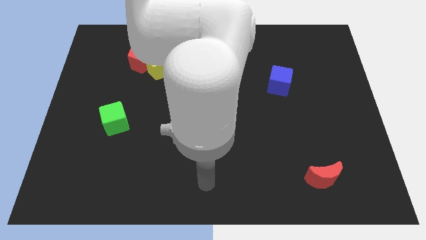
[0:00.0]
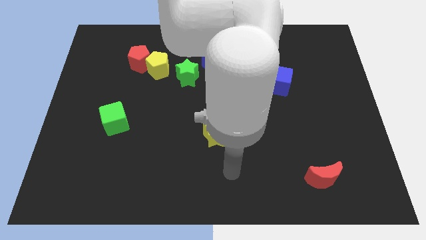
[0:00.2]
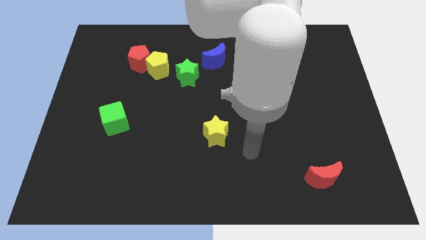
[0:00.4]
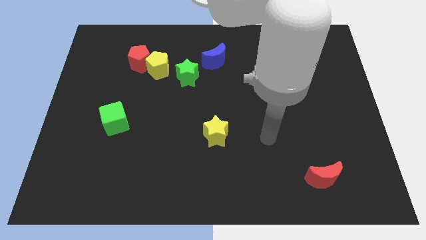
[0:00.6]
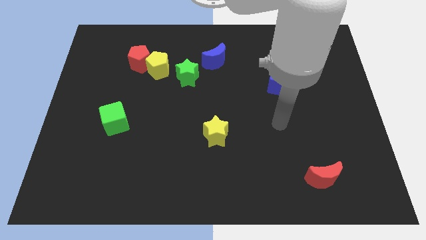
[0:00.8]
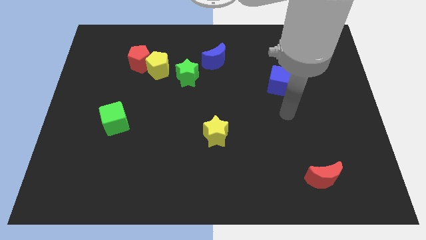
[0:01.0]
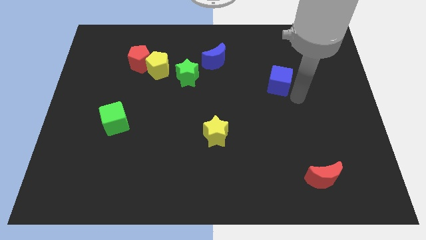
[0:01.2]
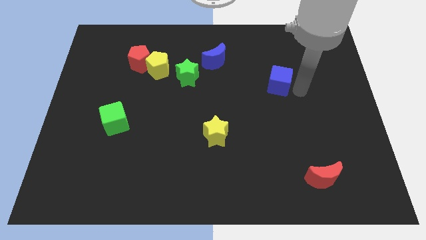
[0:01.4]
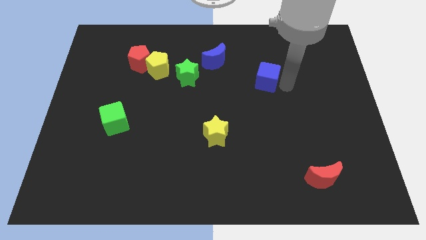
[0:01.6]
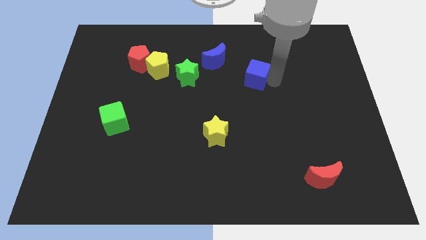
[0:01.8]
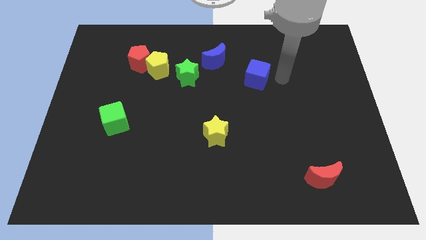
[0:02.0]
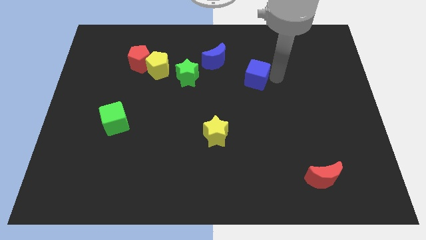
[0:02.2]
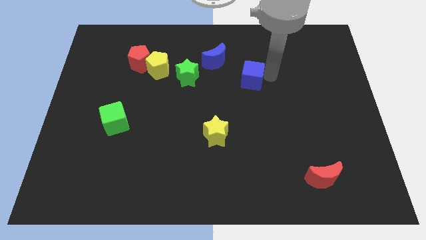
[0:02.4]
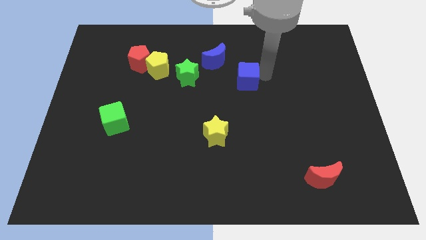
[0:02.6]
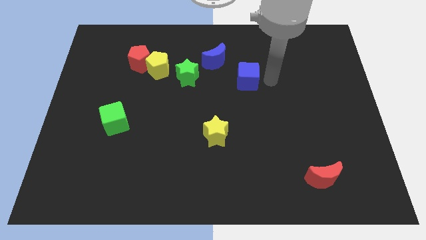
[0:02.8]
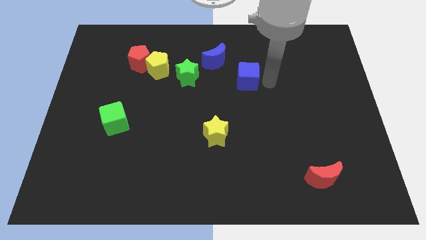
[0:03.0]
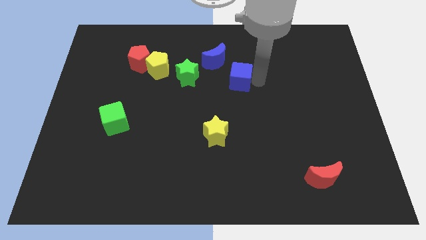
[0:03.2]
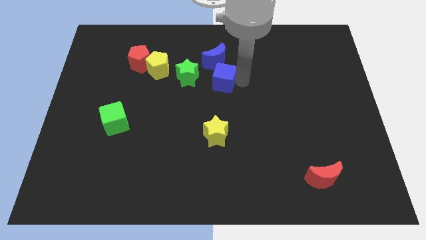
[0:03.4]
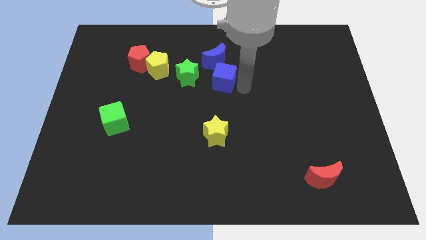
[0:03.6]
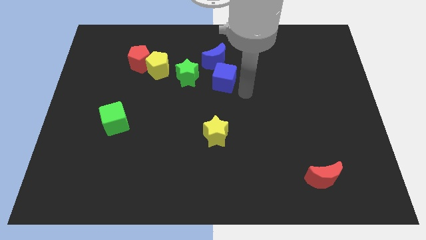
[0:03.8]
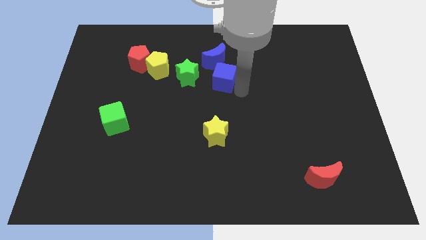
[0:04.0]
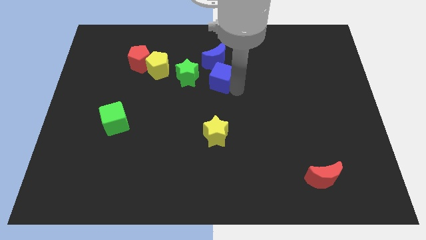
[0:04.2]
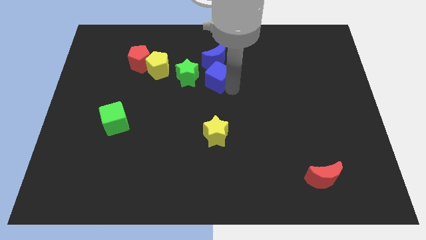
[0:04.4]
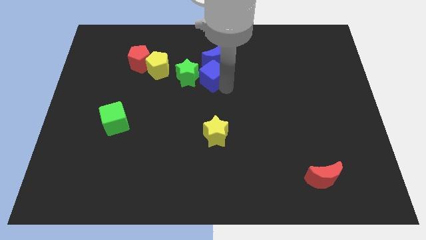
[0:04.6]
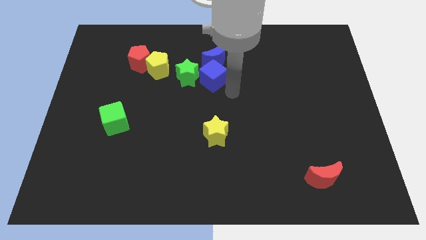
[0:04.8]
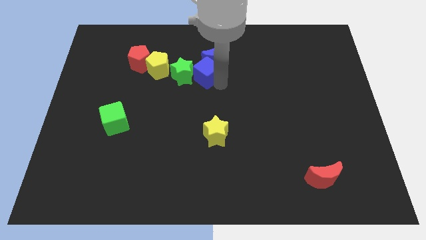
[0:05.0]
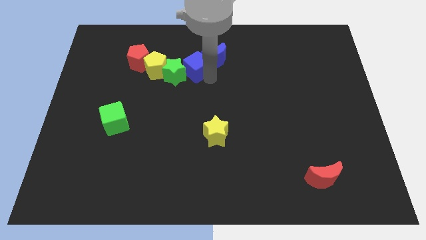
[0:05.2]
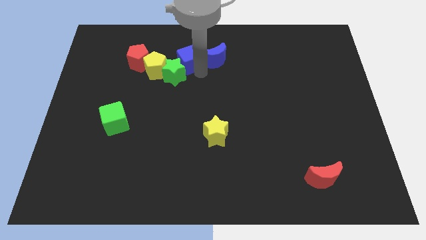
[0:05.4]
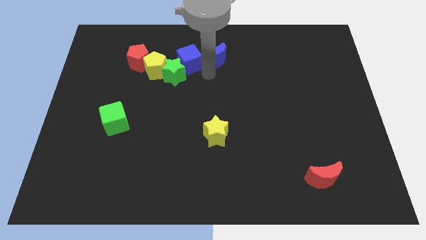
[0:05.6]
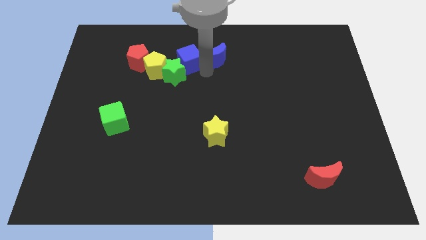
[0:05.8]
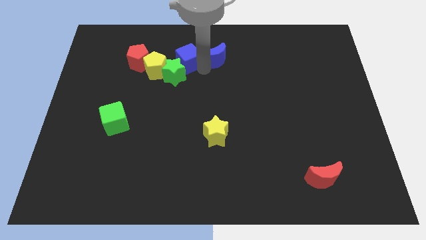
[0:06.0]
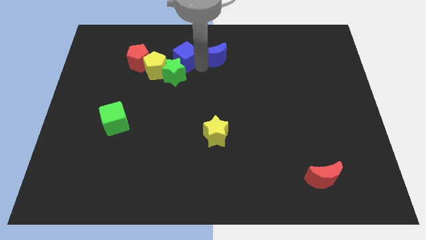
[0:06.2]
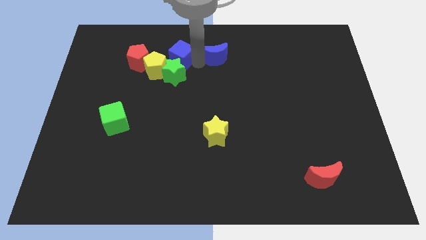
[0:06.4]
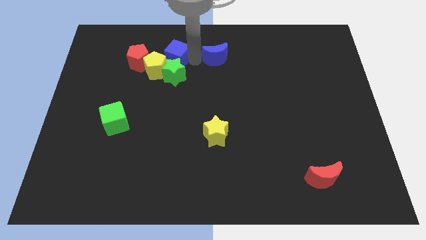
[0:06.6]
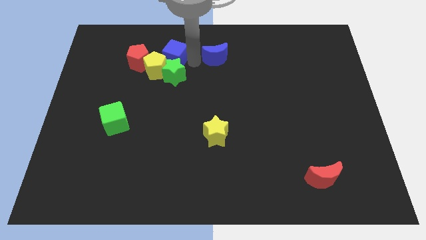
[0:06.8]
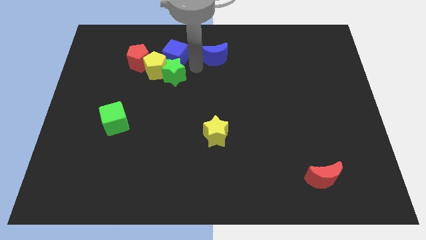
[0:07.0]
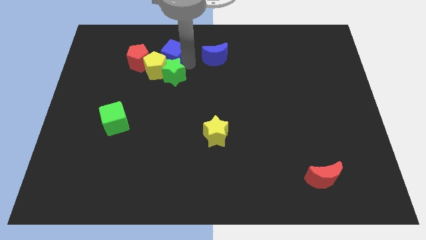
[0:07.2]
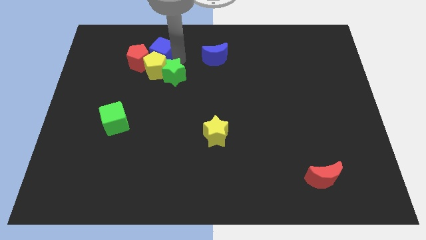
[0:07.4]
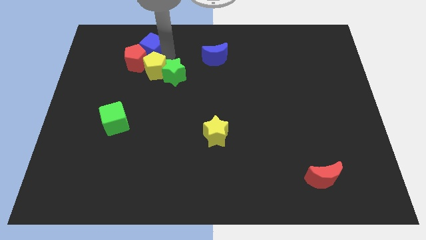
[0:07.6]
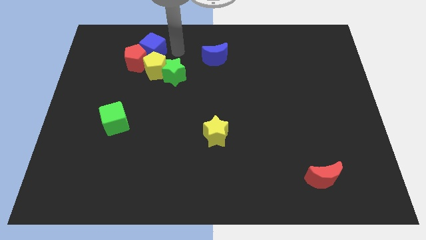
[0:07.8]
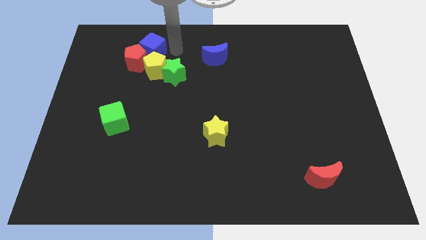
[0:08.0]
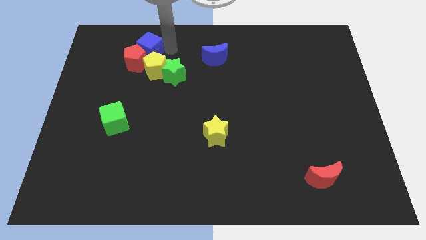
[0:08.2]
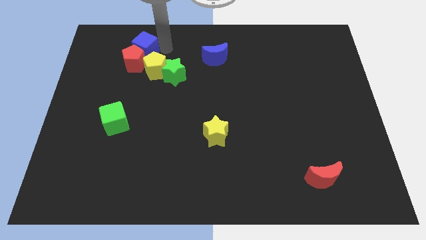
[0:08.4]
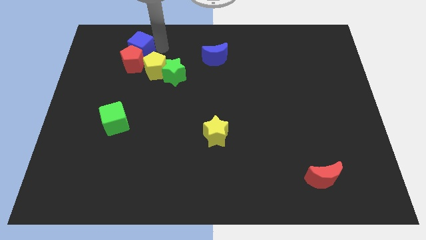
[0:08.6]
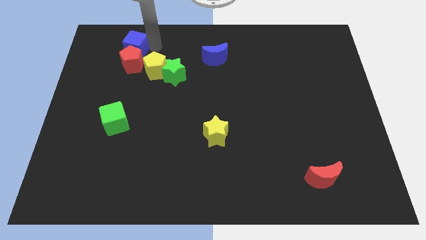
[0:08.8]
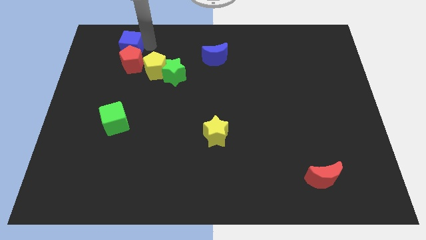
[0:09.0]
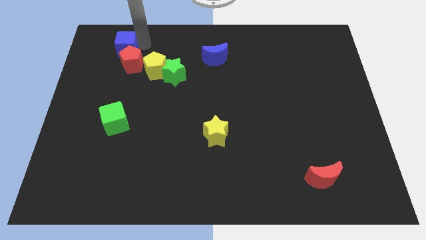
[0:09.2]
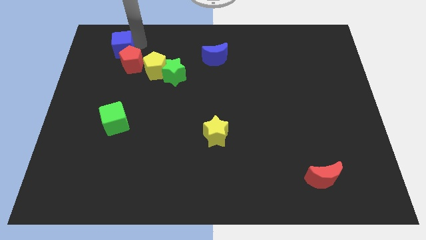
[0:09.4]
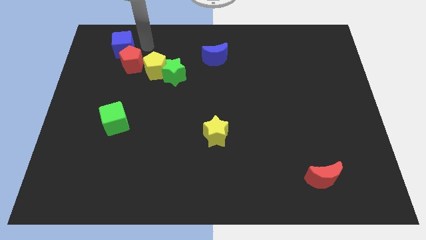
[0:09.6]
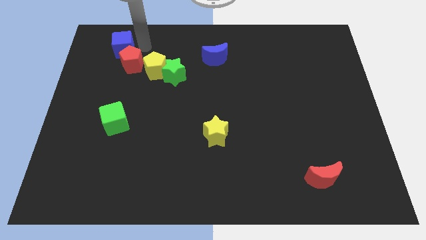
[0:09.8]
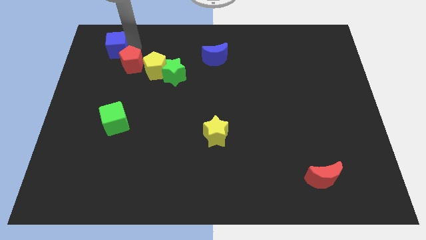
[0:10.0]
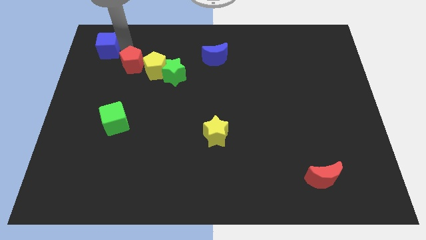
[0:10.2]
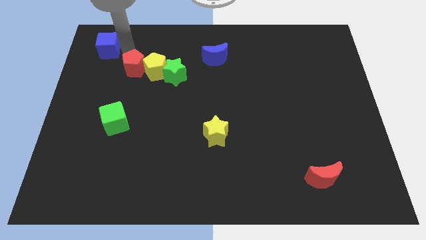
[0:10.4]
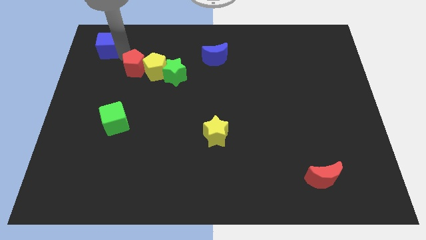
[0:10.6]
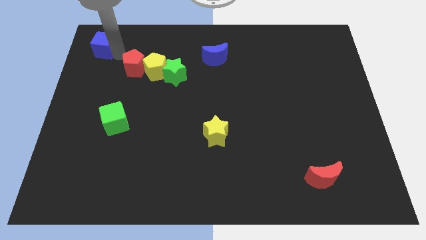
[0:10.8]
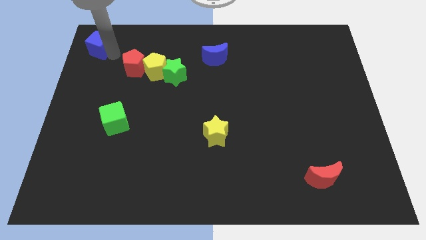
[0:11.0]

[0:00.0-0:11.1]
slide the blue cube to the top left

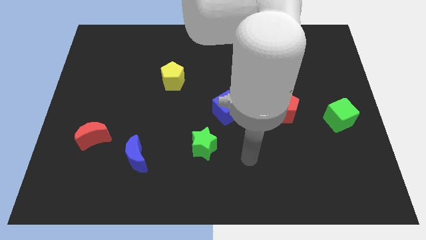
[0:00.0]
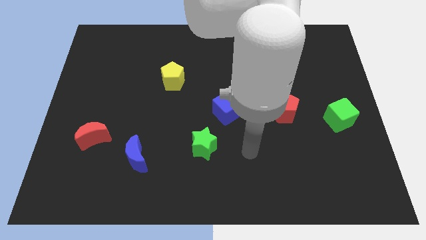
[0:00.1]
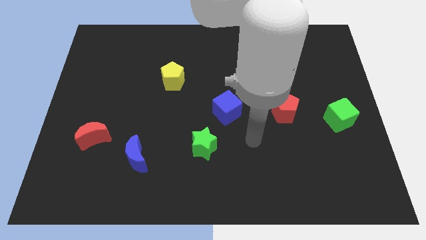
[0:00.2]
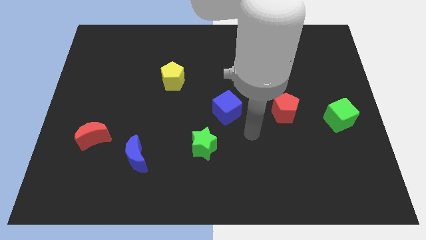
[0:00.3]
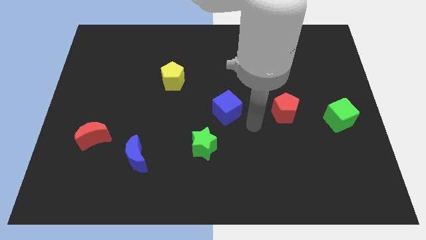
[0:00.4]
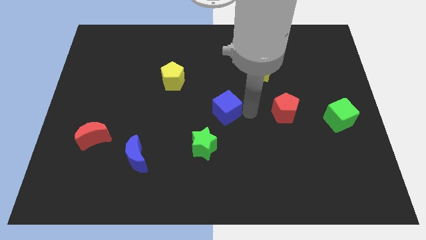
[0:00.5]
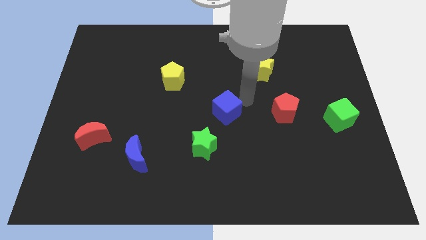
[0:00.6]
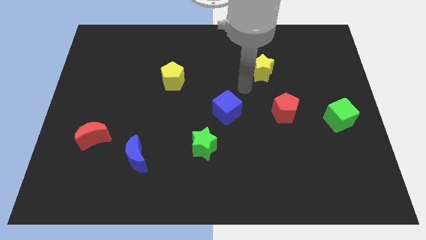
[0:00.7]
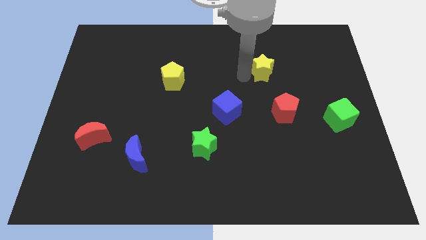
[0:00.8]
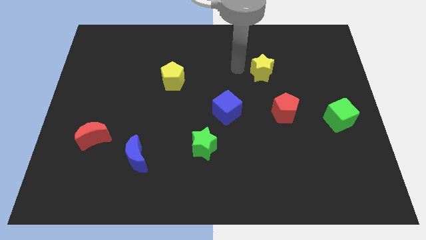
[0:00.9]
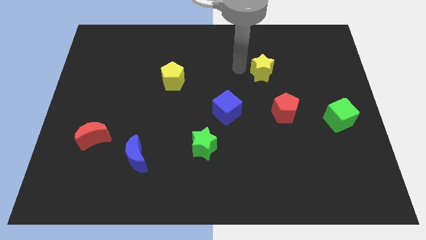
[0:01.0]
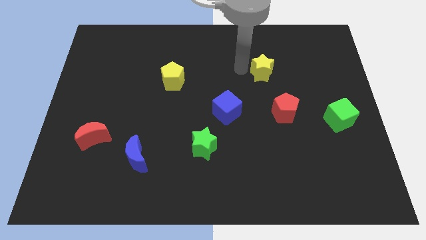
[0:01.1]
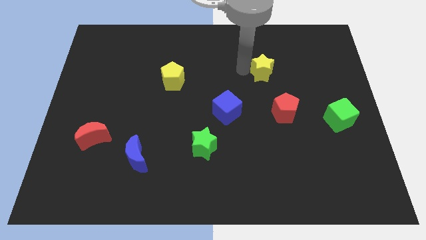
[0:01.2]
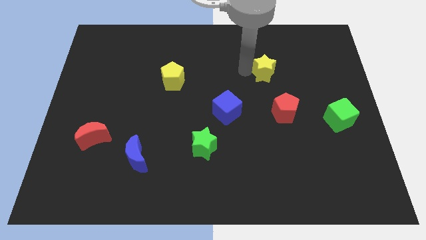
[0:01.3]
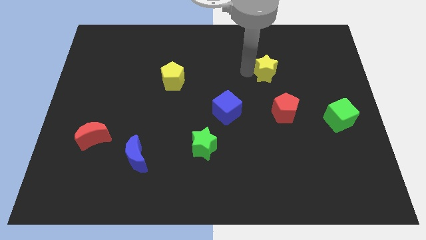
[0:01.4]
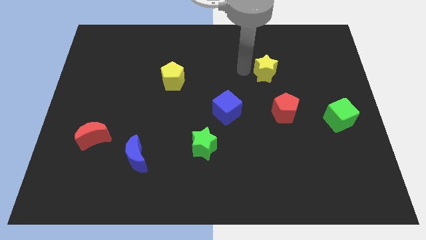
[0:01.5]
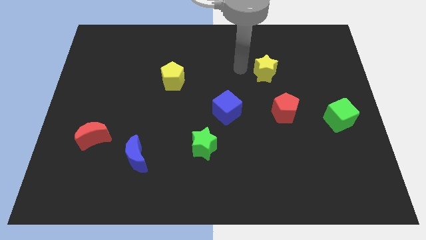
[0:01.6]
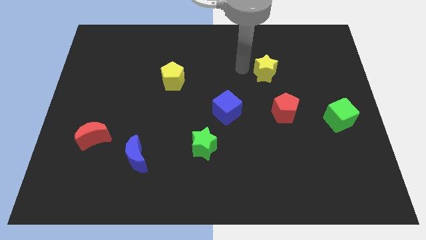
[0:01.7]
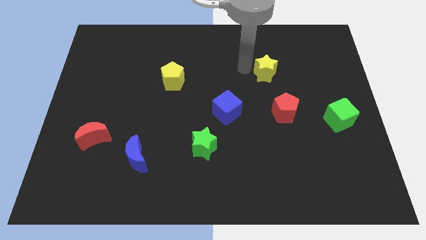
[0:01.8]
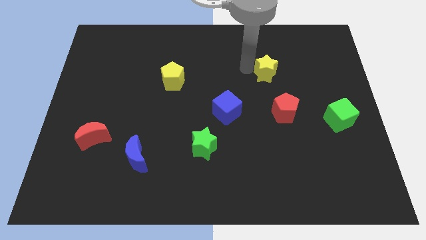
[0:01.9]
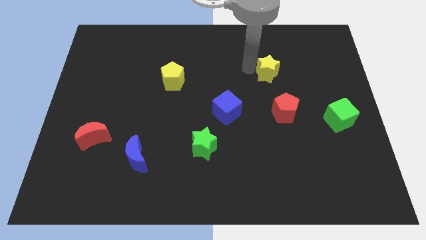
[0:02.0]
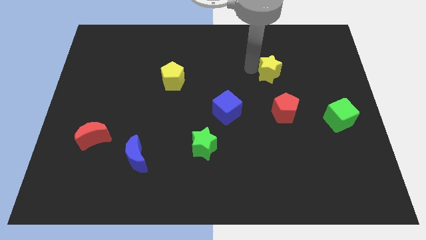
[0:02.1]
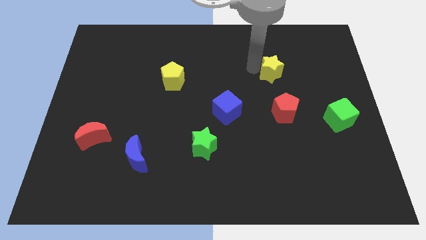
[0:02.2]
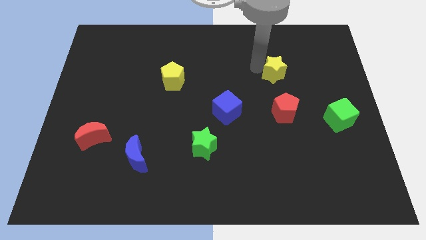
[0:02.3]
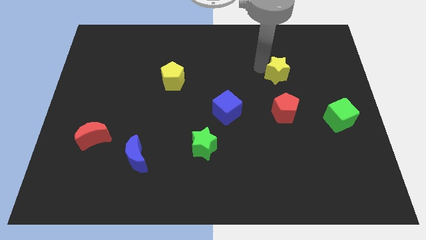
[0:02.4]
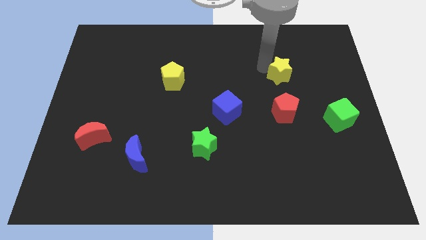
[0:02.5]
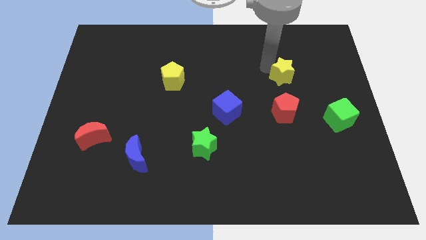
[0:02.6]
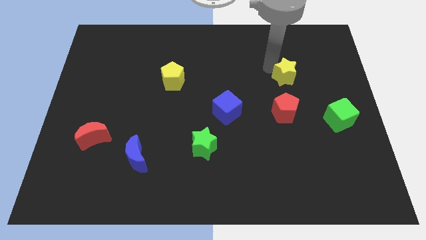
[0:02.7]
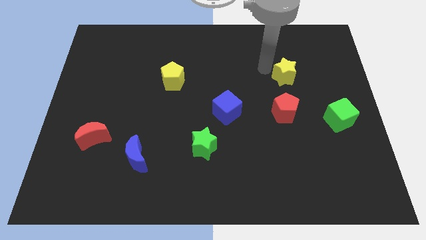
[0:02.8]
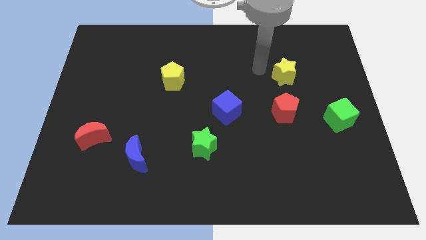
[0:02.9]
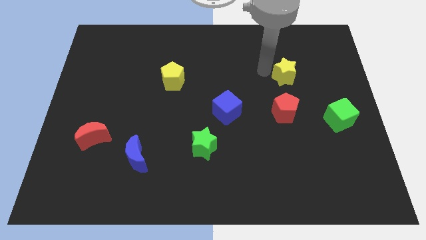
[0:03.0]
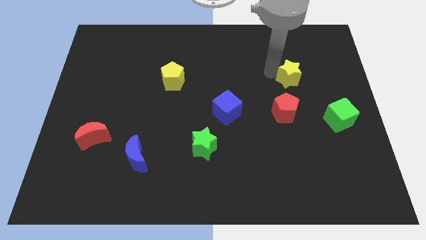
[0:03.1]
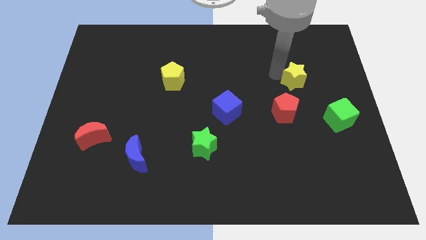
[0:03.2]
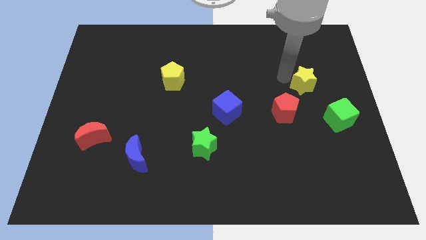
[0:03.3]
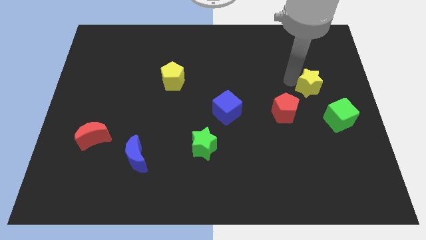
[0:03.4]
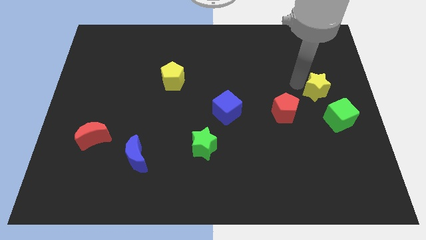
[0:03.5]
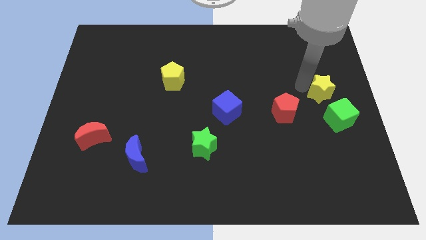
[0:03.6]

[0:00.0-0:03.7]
put the yellow star to the right side
